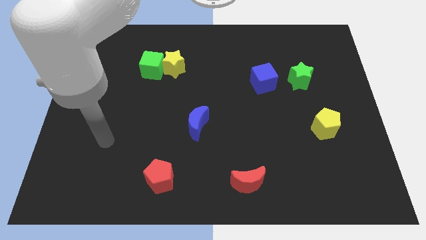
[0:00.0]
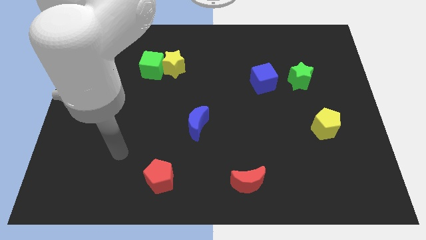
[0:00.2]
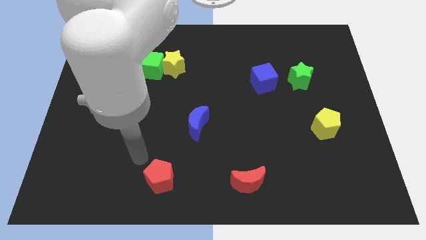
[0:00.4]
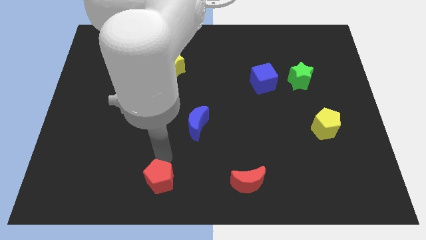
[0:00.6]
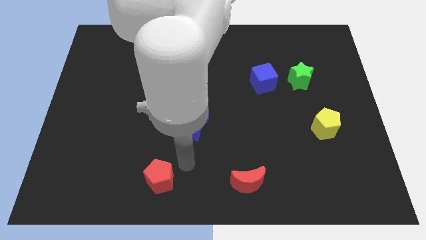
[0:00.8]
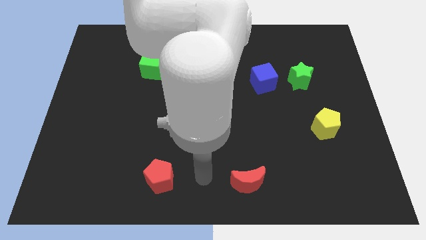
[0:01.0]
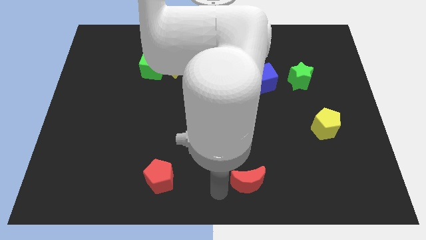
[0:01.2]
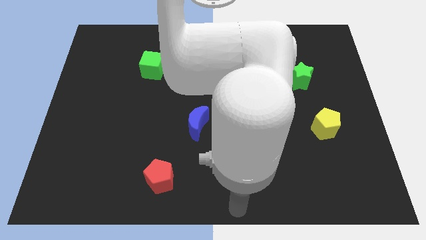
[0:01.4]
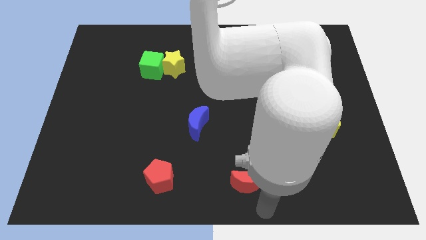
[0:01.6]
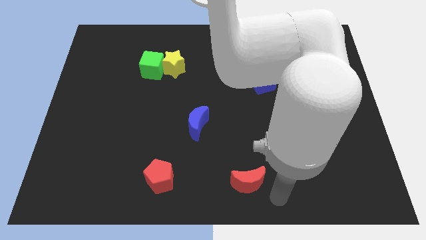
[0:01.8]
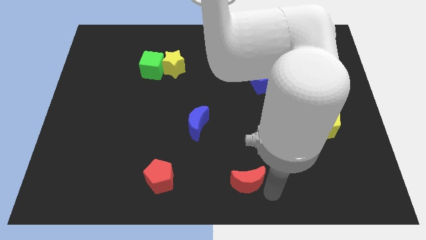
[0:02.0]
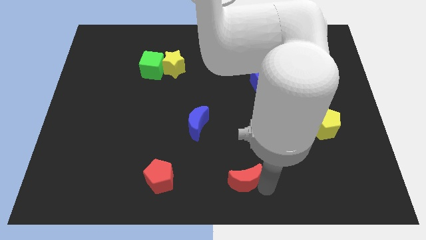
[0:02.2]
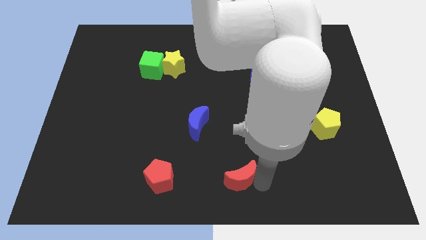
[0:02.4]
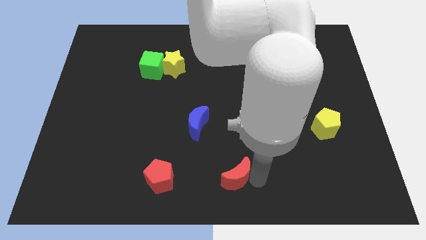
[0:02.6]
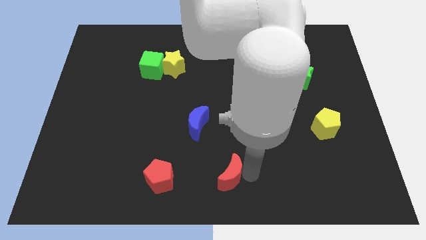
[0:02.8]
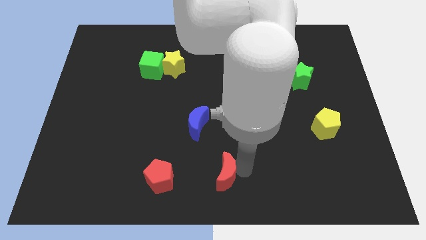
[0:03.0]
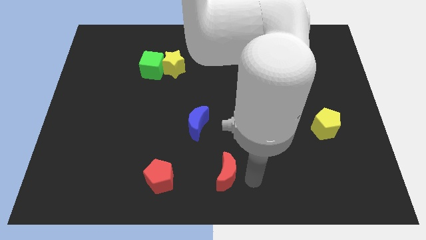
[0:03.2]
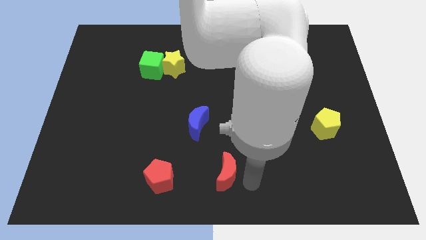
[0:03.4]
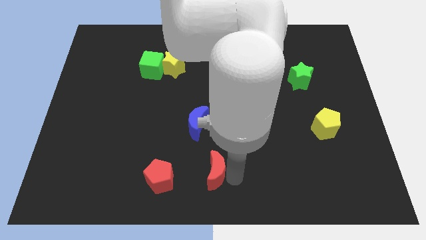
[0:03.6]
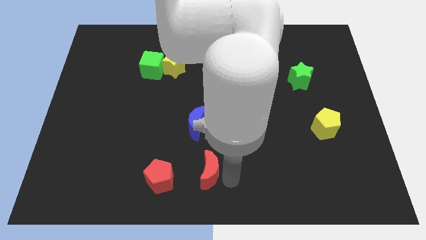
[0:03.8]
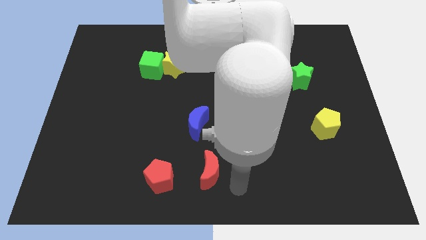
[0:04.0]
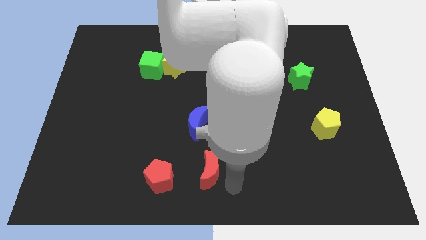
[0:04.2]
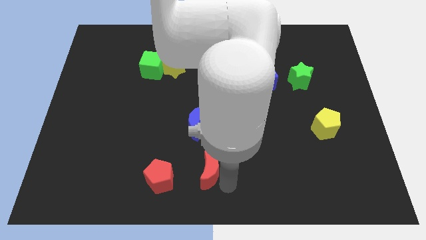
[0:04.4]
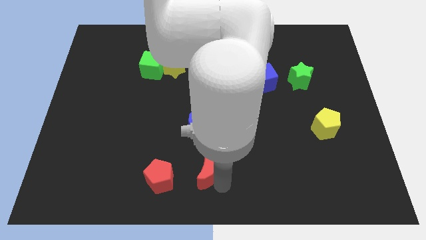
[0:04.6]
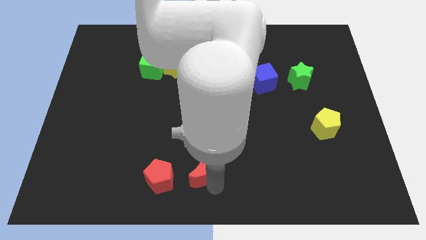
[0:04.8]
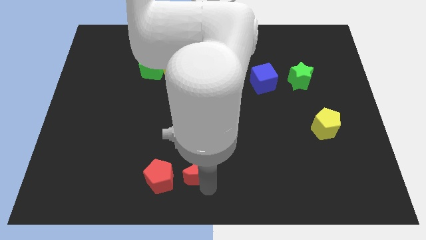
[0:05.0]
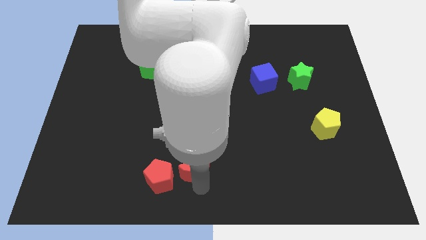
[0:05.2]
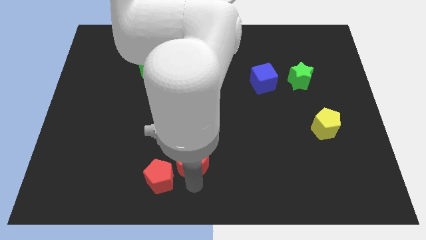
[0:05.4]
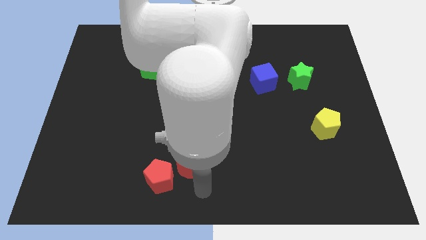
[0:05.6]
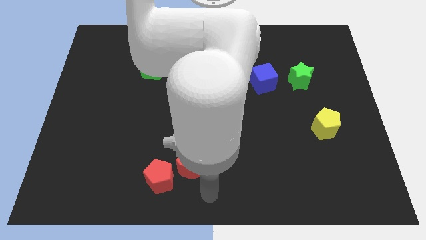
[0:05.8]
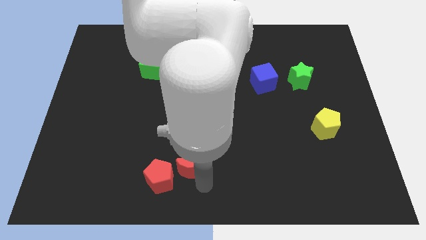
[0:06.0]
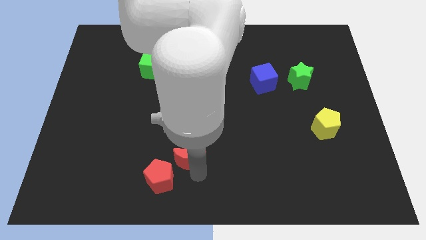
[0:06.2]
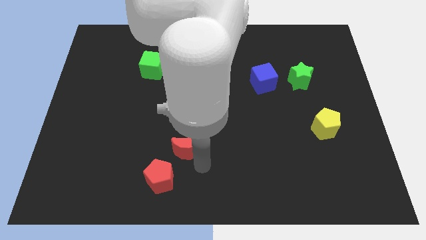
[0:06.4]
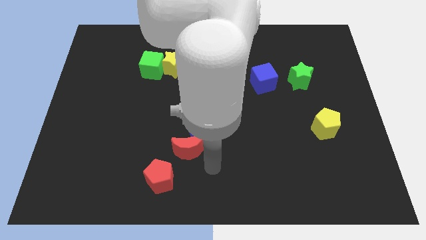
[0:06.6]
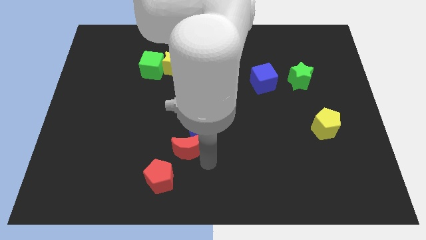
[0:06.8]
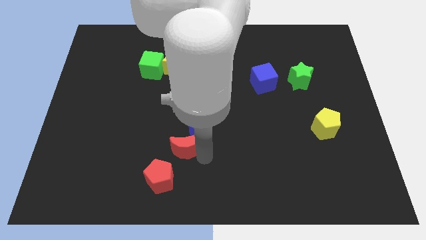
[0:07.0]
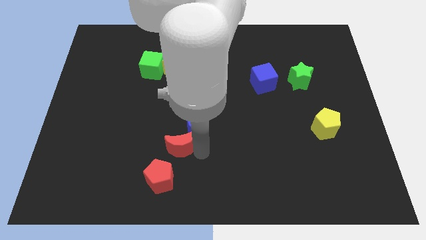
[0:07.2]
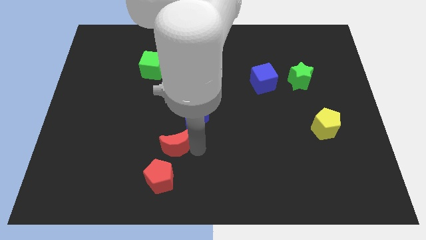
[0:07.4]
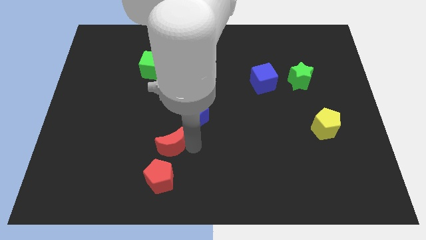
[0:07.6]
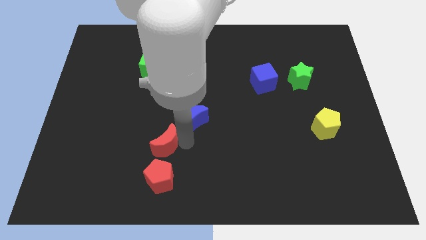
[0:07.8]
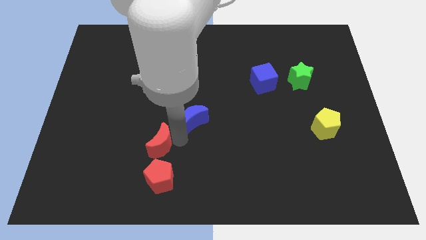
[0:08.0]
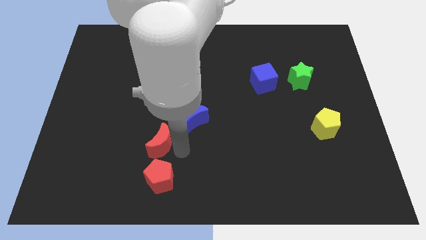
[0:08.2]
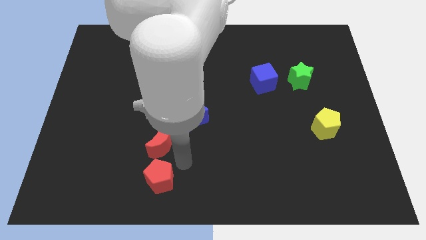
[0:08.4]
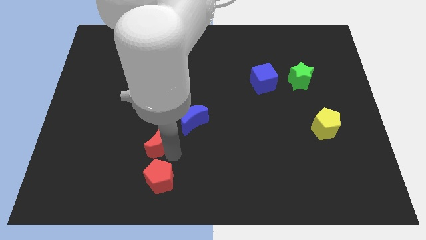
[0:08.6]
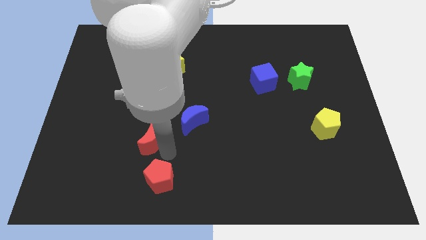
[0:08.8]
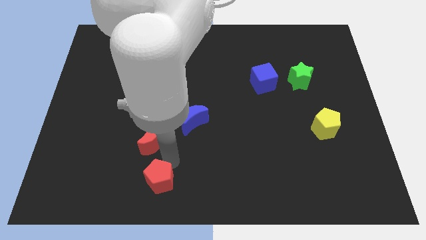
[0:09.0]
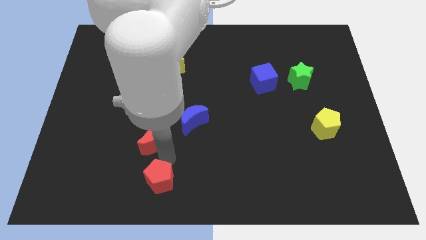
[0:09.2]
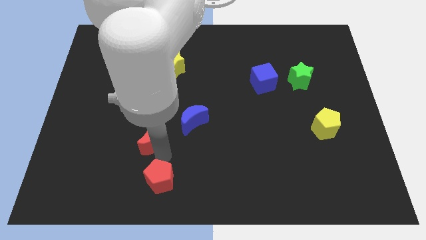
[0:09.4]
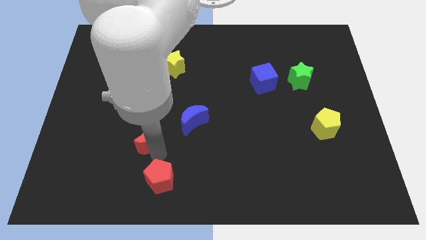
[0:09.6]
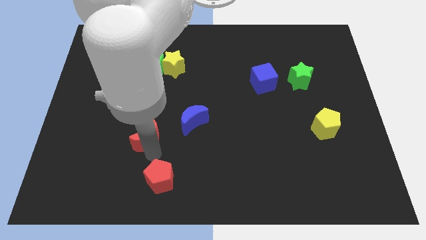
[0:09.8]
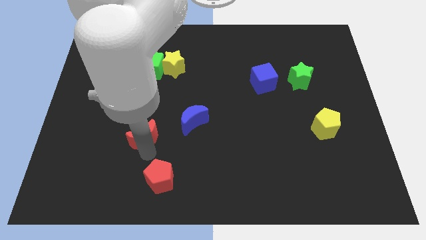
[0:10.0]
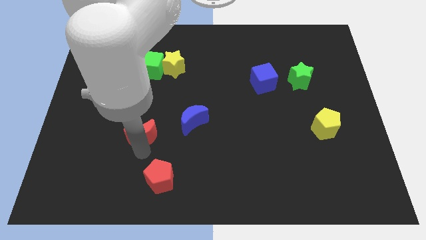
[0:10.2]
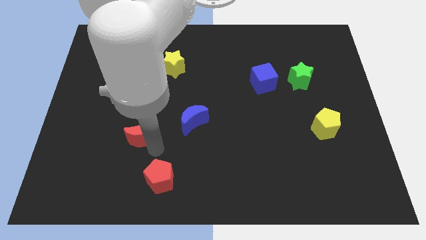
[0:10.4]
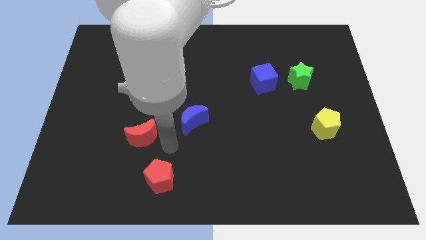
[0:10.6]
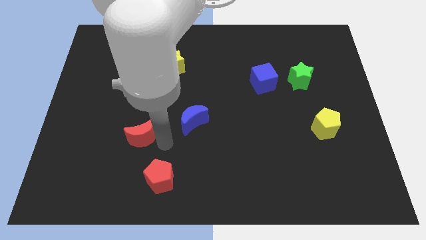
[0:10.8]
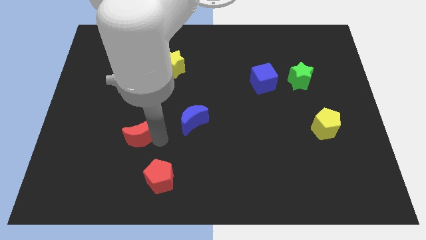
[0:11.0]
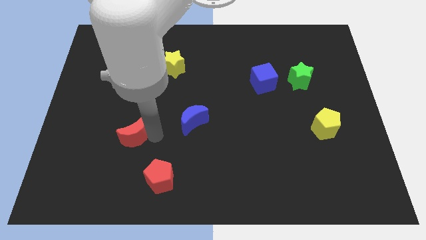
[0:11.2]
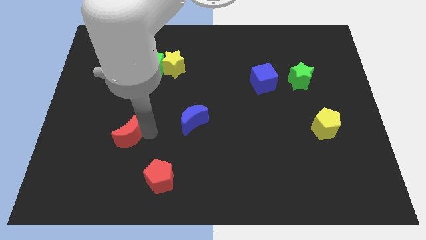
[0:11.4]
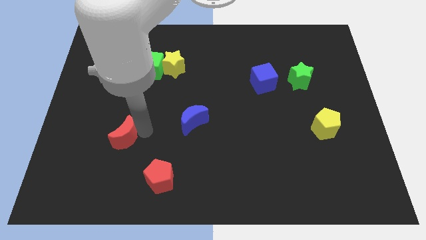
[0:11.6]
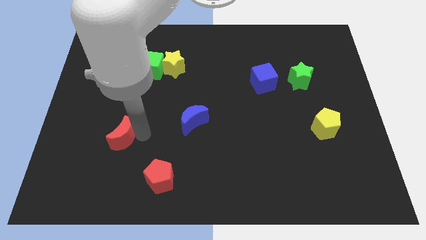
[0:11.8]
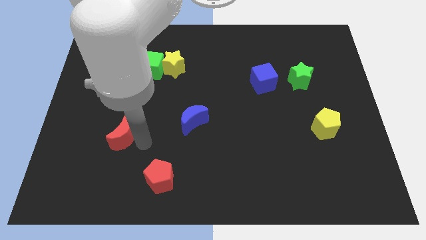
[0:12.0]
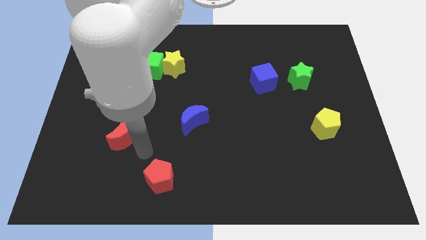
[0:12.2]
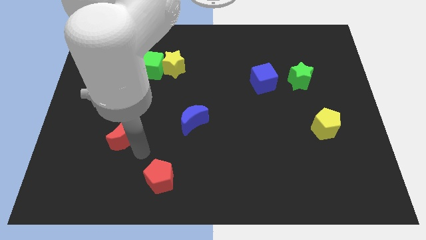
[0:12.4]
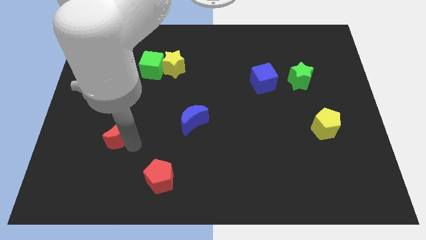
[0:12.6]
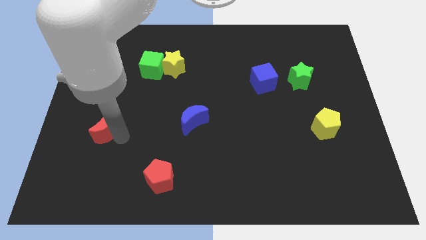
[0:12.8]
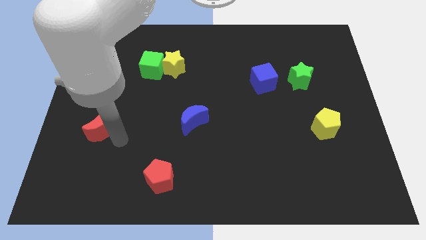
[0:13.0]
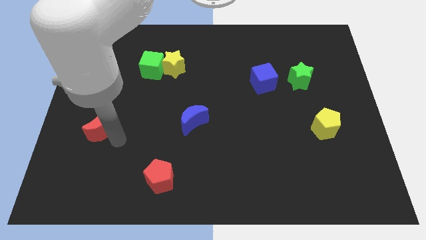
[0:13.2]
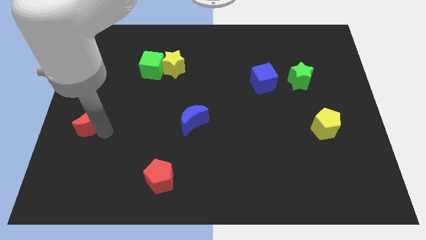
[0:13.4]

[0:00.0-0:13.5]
slide the red moon to the center left
